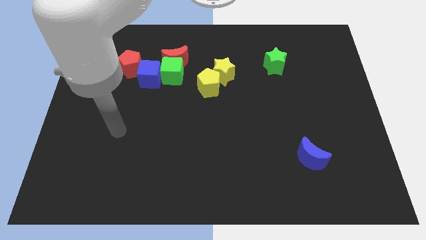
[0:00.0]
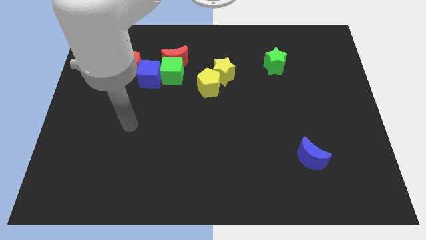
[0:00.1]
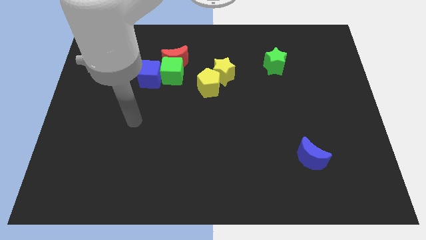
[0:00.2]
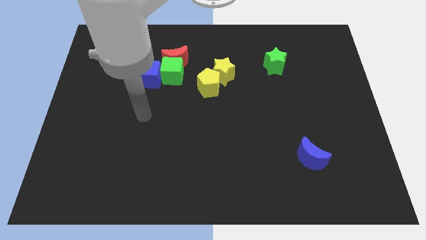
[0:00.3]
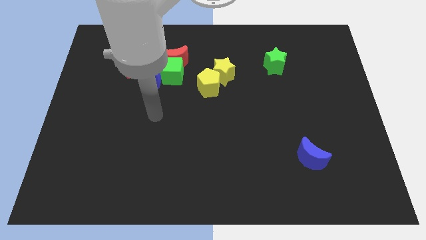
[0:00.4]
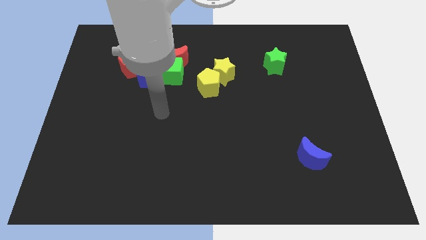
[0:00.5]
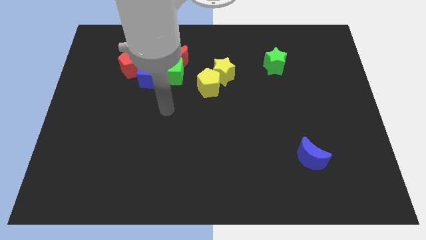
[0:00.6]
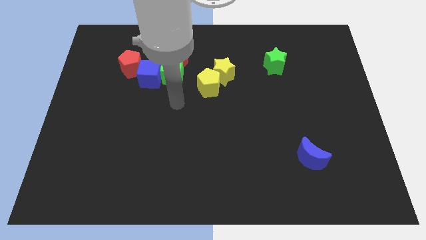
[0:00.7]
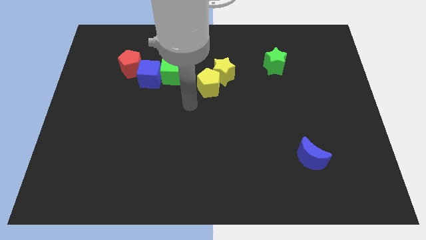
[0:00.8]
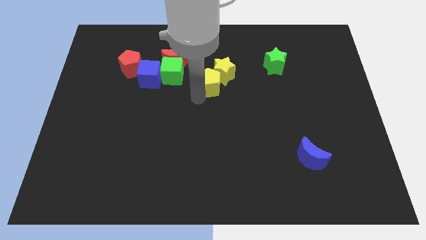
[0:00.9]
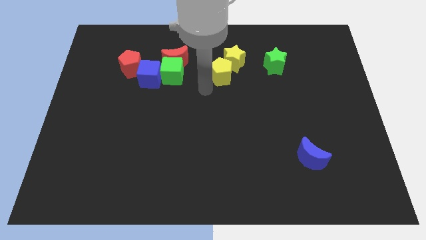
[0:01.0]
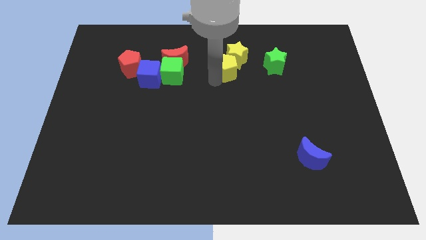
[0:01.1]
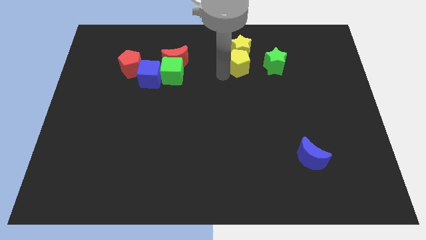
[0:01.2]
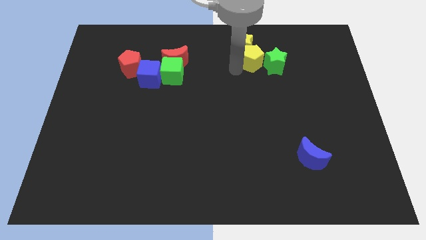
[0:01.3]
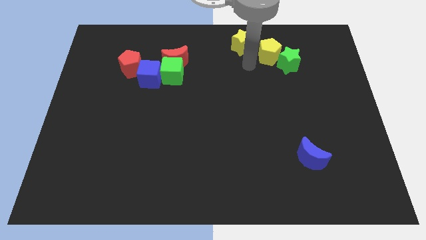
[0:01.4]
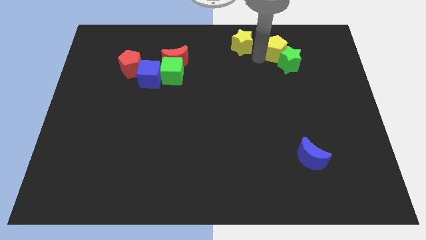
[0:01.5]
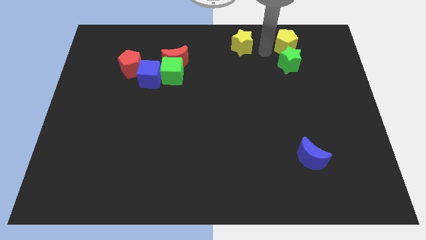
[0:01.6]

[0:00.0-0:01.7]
move the yellow star away from the yellow pentagon

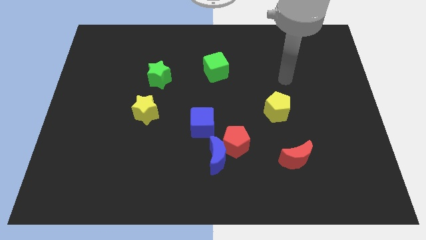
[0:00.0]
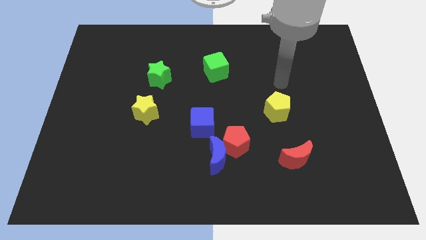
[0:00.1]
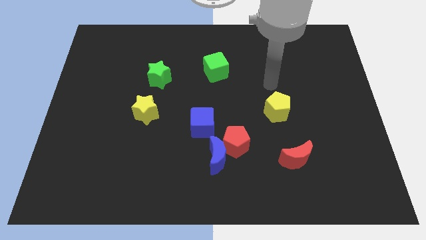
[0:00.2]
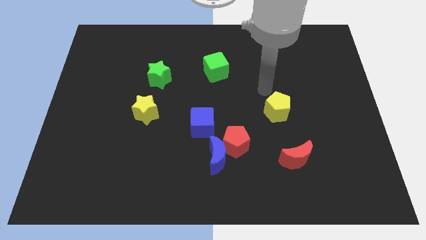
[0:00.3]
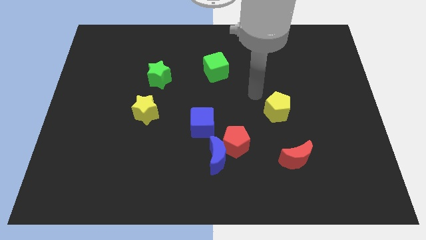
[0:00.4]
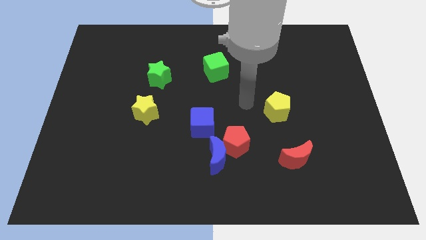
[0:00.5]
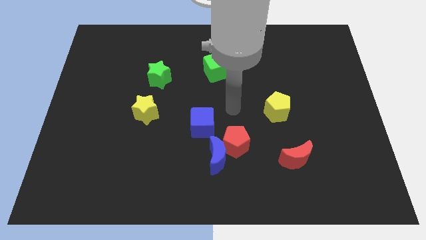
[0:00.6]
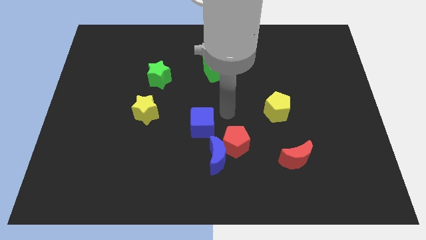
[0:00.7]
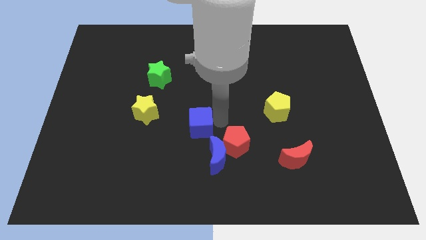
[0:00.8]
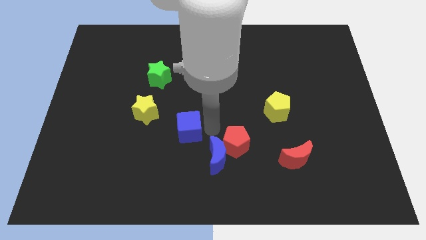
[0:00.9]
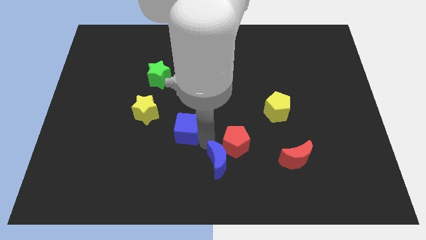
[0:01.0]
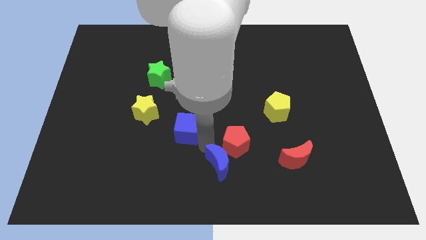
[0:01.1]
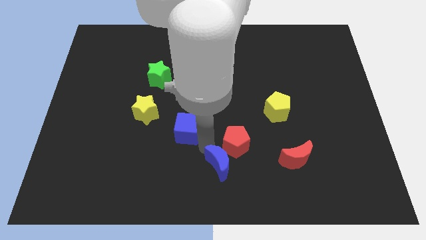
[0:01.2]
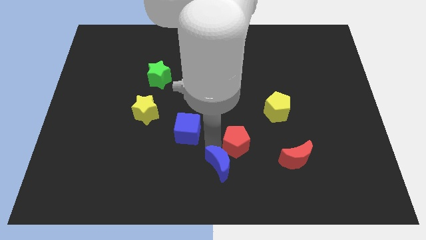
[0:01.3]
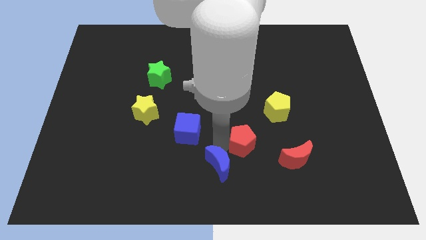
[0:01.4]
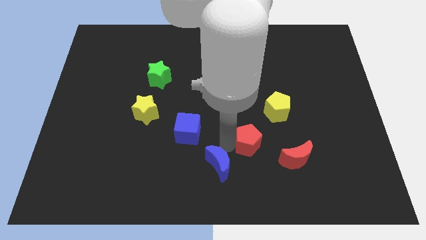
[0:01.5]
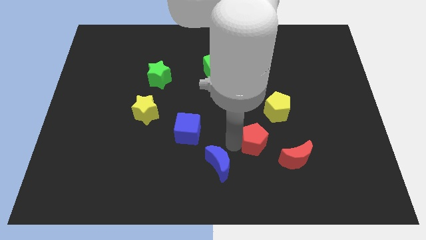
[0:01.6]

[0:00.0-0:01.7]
pull the red pentagon apart from the blue moon and blue cube

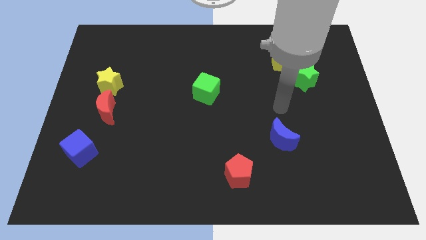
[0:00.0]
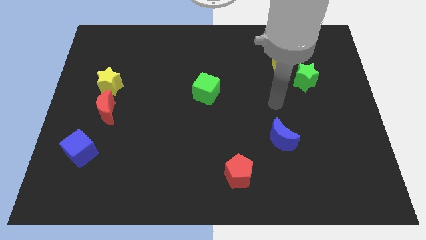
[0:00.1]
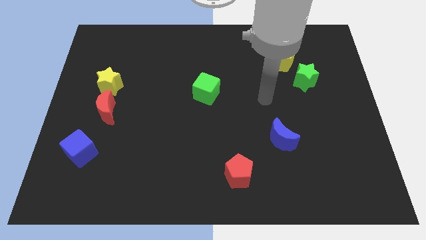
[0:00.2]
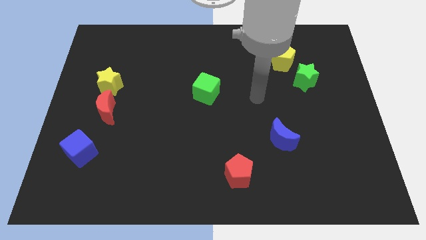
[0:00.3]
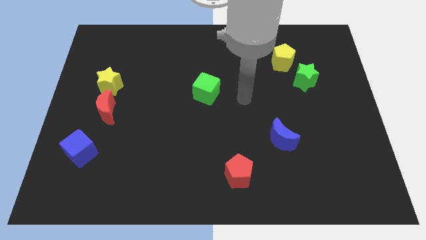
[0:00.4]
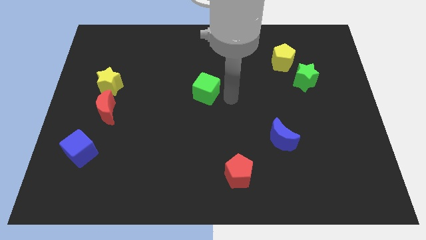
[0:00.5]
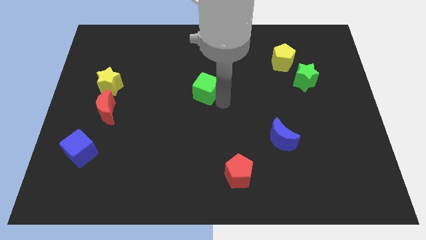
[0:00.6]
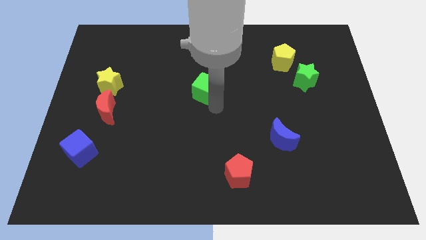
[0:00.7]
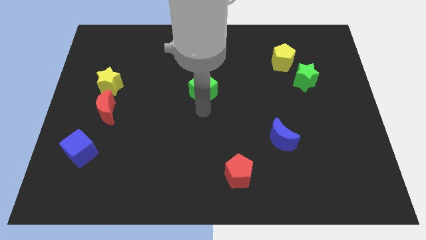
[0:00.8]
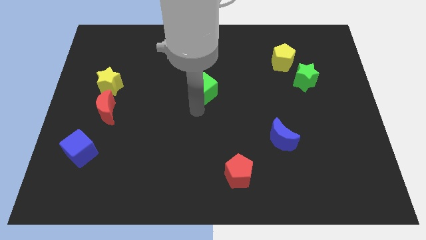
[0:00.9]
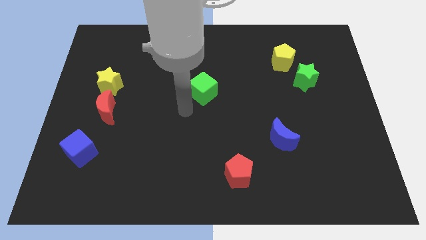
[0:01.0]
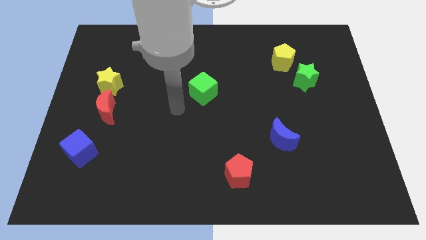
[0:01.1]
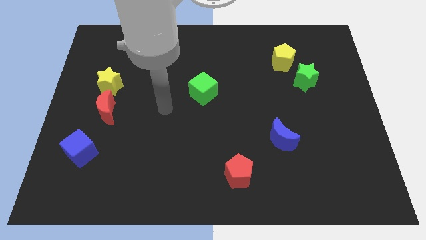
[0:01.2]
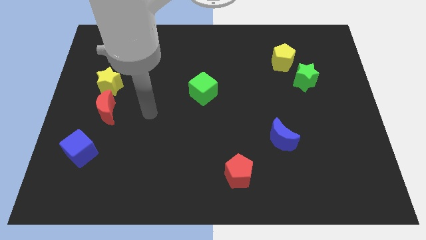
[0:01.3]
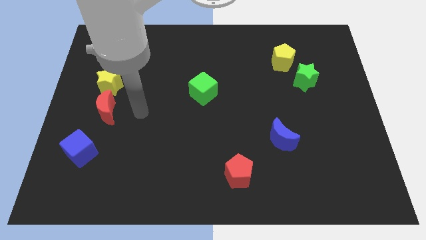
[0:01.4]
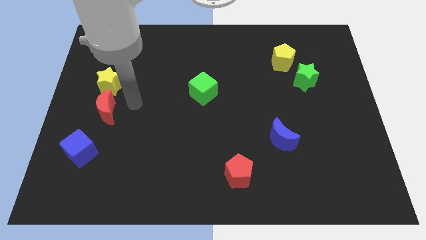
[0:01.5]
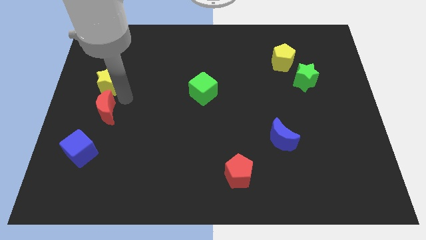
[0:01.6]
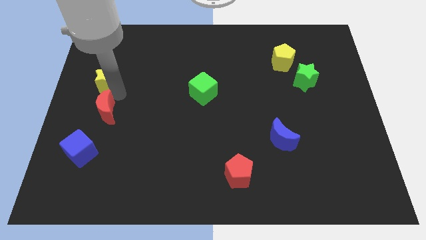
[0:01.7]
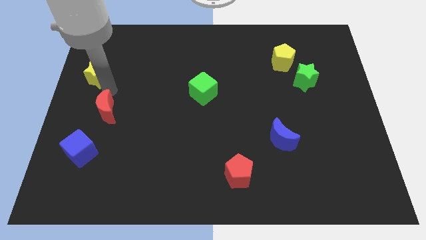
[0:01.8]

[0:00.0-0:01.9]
pull the red moon apart from the yellow star

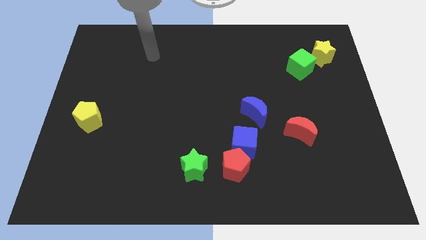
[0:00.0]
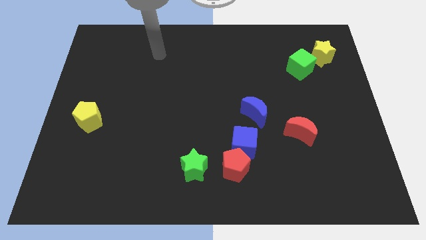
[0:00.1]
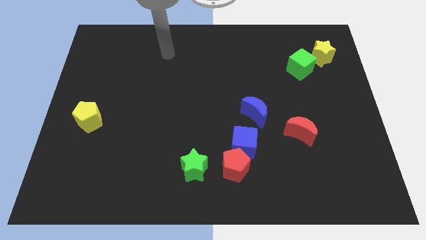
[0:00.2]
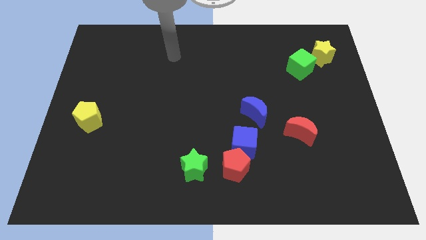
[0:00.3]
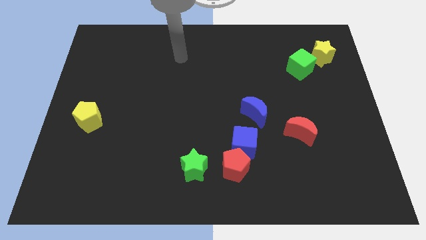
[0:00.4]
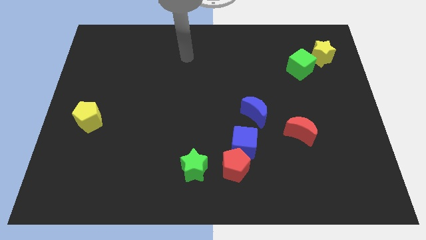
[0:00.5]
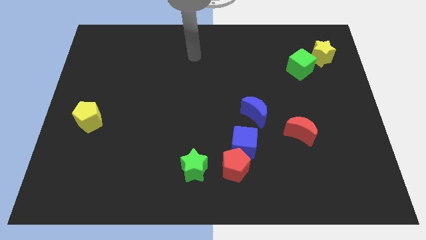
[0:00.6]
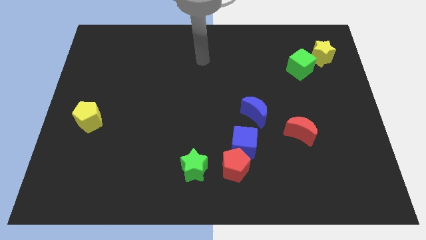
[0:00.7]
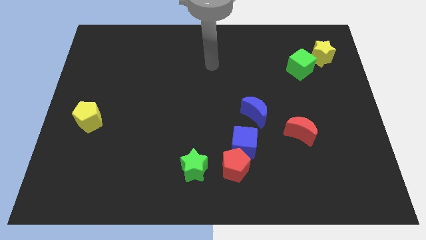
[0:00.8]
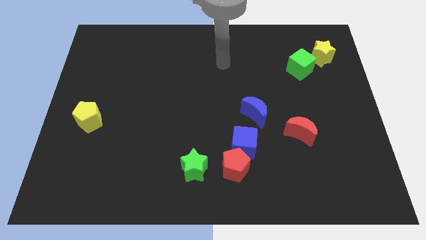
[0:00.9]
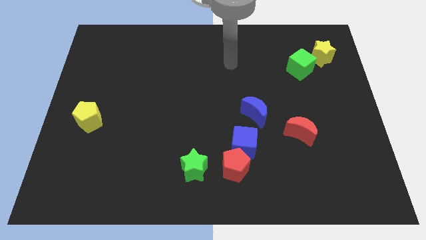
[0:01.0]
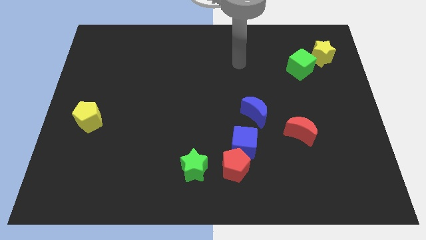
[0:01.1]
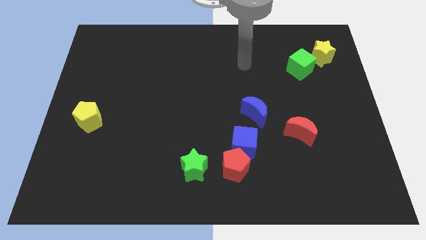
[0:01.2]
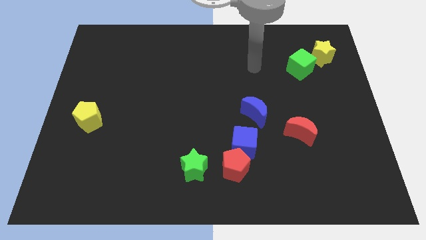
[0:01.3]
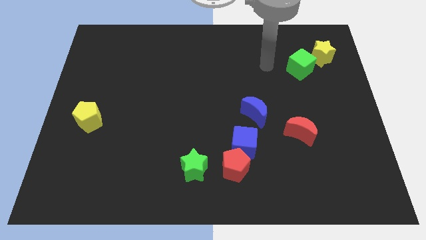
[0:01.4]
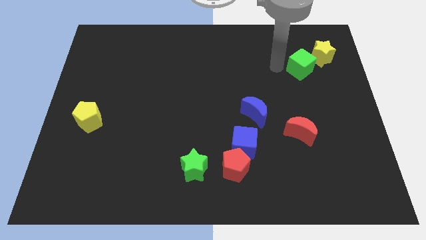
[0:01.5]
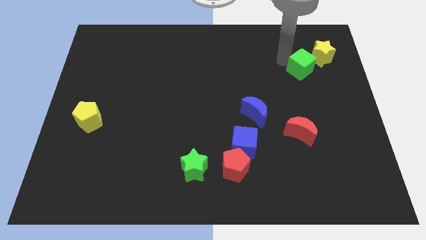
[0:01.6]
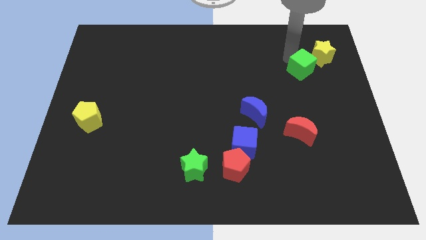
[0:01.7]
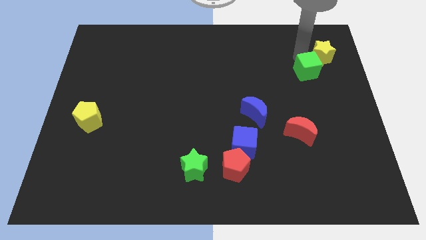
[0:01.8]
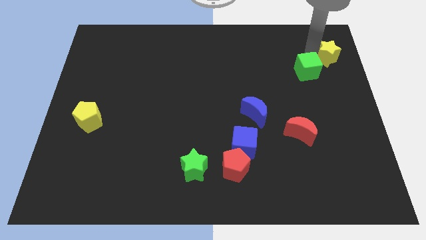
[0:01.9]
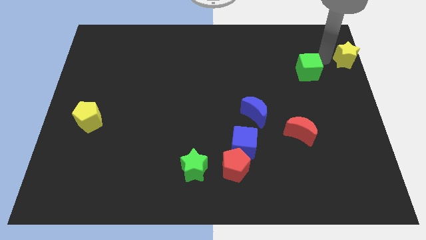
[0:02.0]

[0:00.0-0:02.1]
separate the green cube from the yellow star

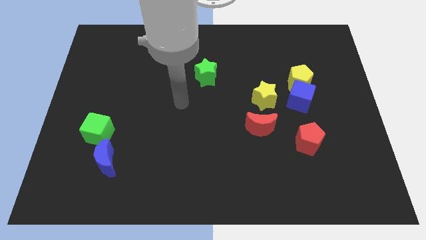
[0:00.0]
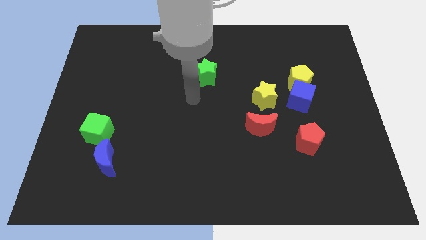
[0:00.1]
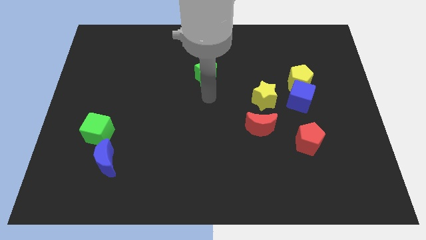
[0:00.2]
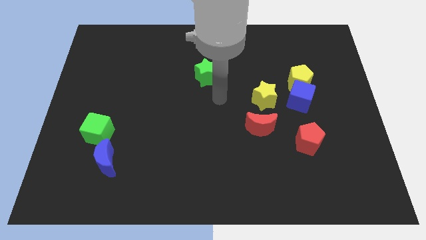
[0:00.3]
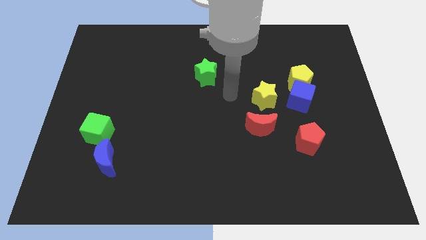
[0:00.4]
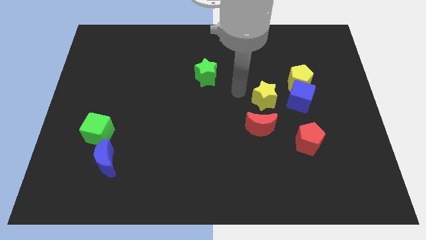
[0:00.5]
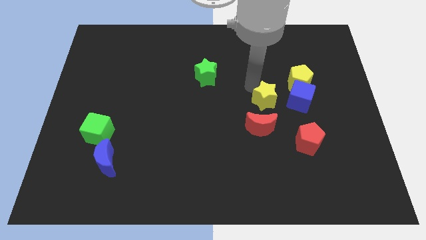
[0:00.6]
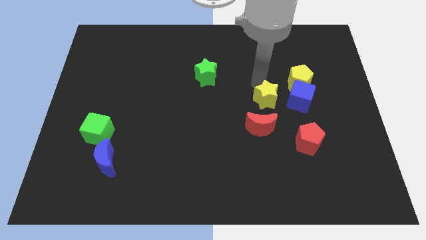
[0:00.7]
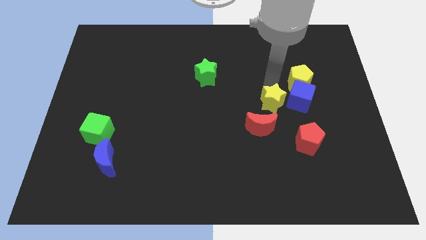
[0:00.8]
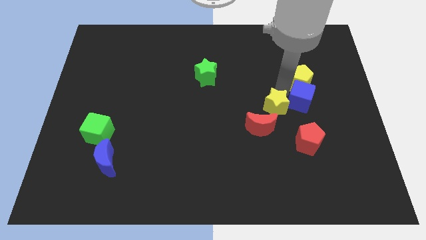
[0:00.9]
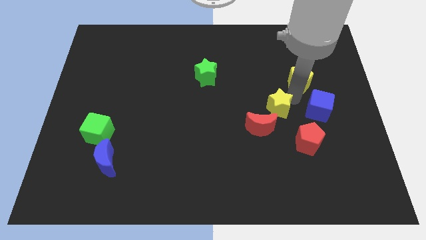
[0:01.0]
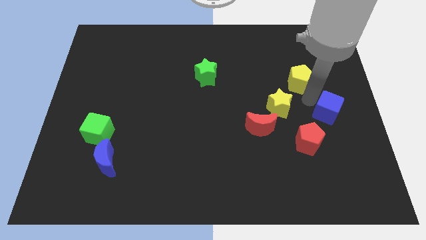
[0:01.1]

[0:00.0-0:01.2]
move the yellow pentagon away from the blue cube

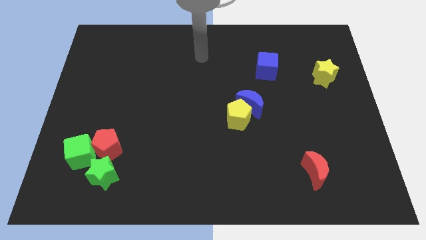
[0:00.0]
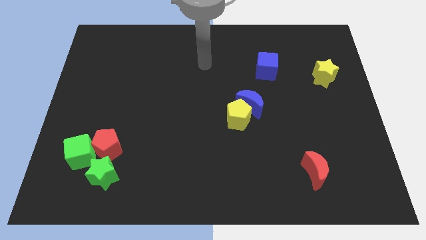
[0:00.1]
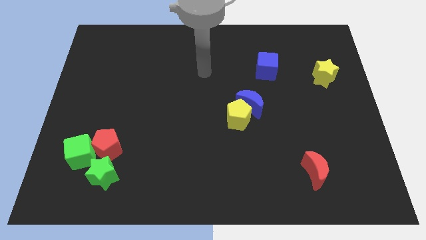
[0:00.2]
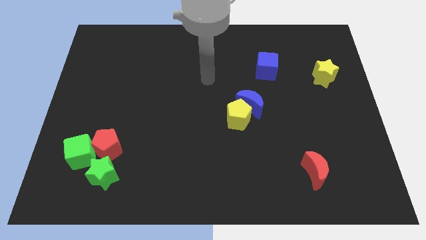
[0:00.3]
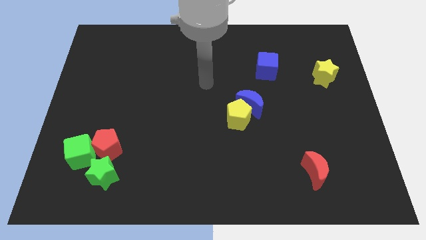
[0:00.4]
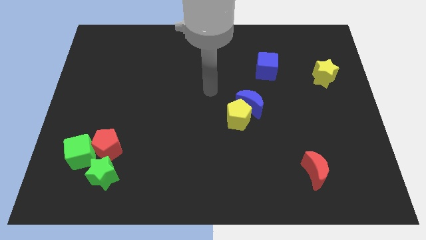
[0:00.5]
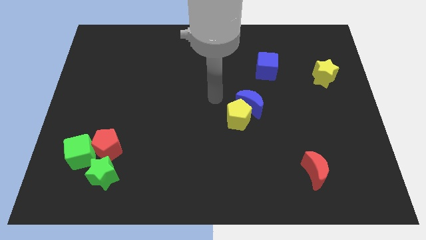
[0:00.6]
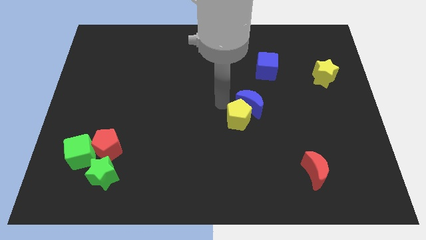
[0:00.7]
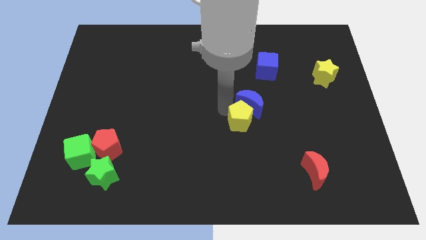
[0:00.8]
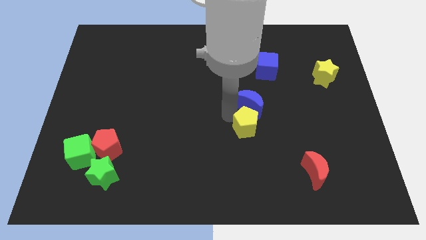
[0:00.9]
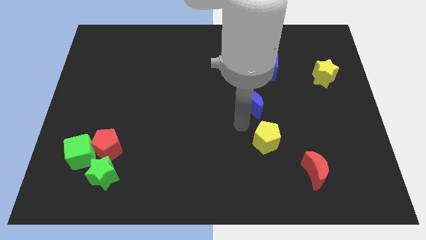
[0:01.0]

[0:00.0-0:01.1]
move the blue moon away from the yellow pentagon
